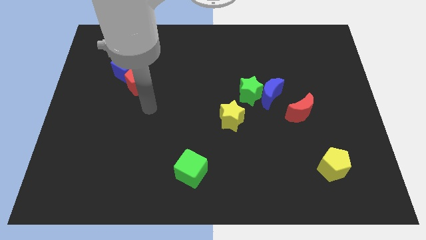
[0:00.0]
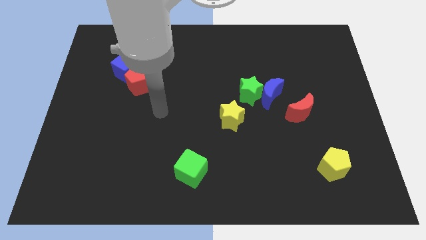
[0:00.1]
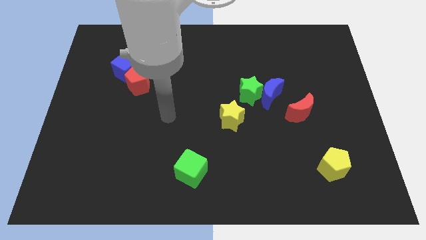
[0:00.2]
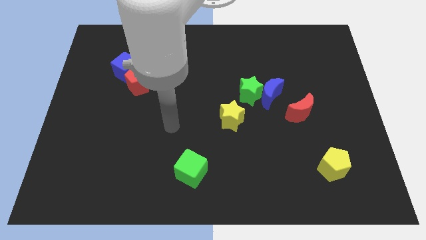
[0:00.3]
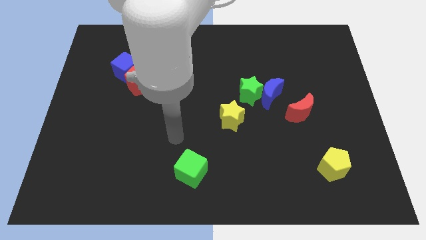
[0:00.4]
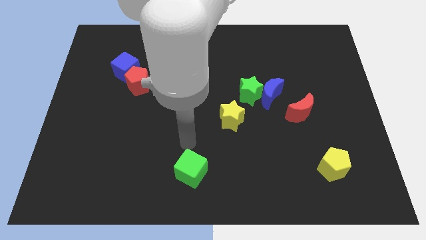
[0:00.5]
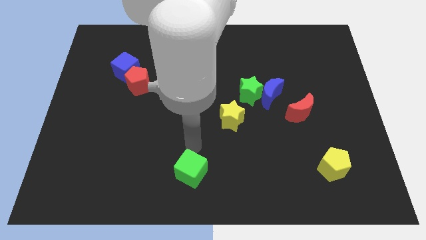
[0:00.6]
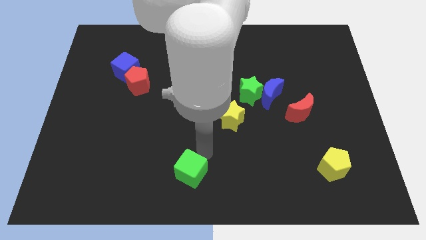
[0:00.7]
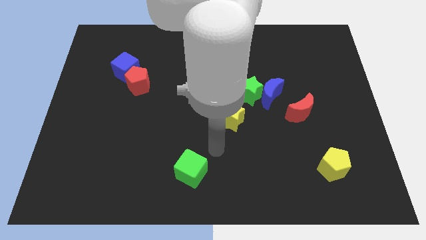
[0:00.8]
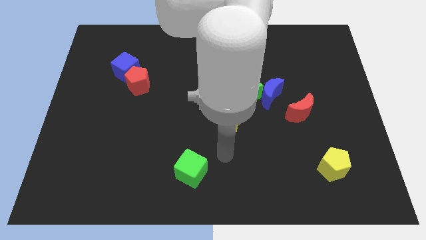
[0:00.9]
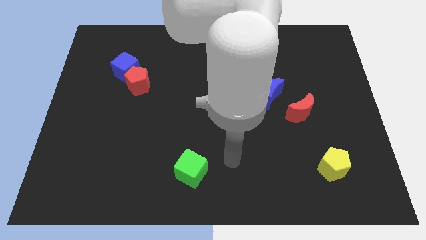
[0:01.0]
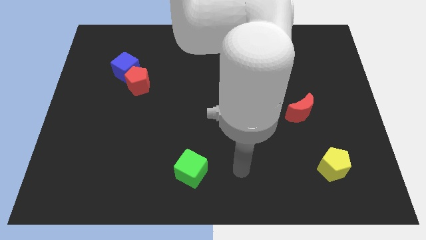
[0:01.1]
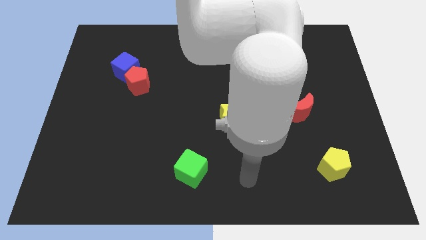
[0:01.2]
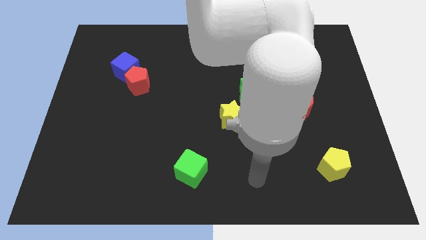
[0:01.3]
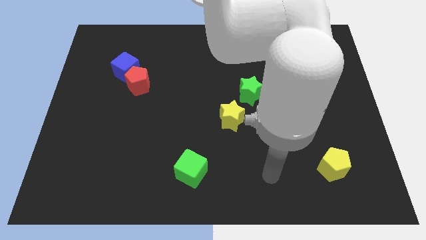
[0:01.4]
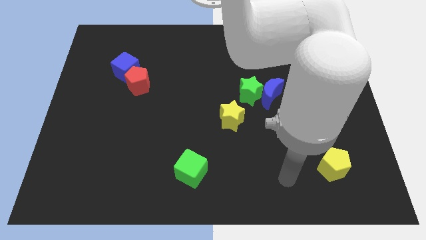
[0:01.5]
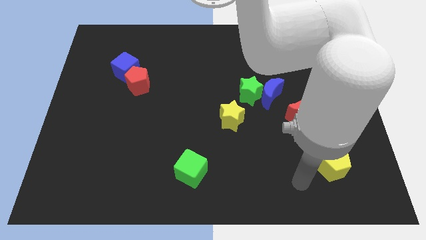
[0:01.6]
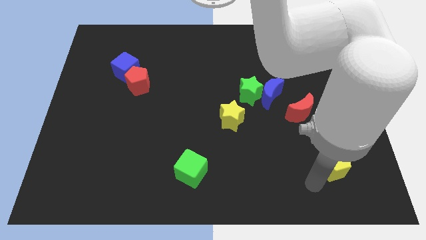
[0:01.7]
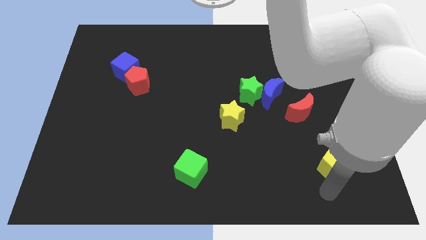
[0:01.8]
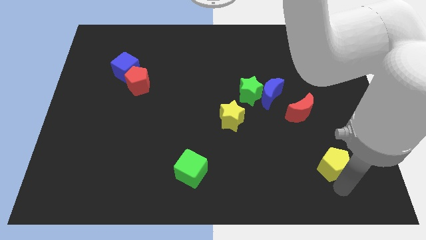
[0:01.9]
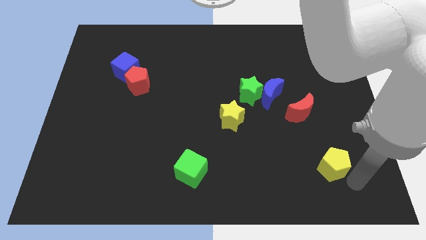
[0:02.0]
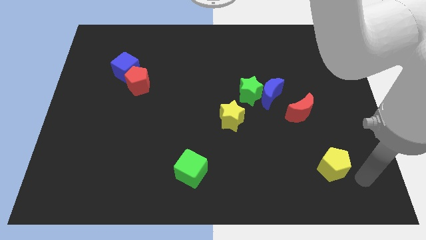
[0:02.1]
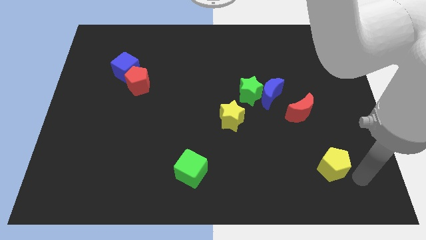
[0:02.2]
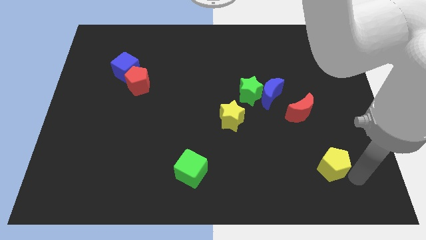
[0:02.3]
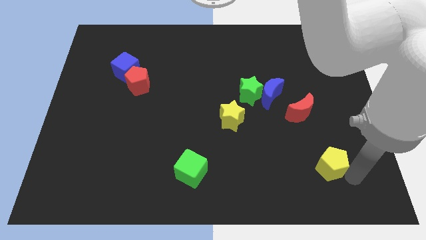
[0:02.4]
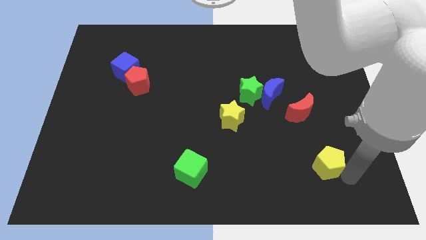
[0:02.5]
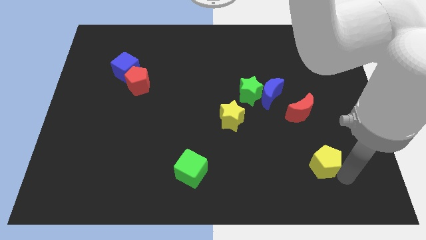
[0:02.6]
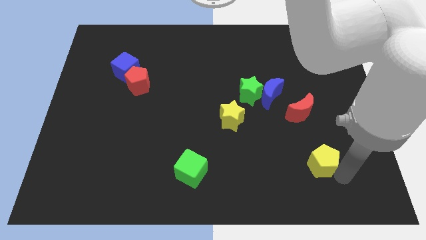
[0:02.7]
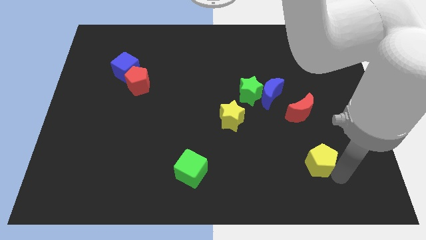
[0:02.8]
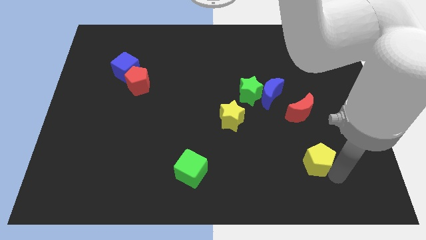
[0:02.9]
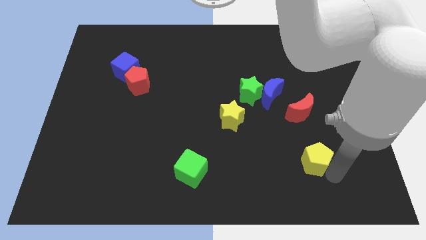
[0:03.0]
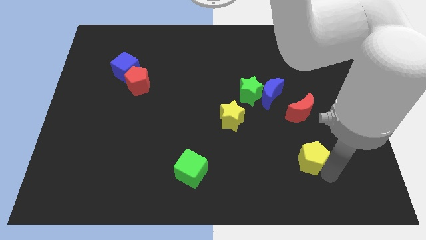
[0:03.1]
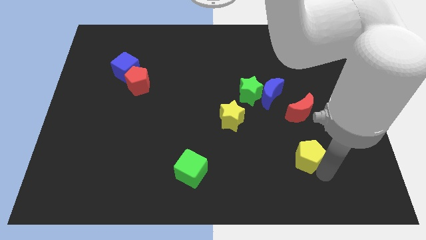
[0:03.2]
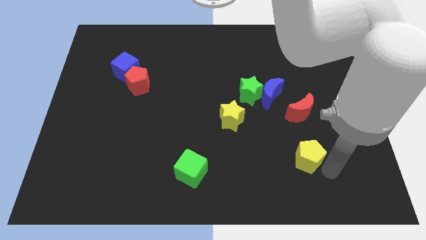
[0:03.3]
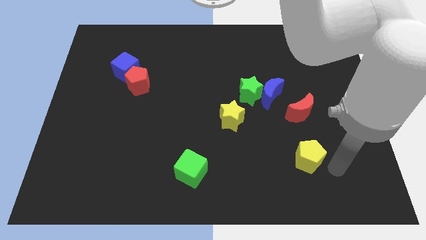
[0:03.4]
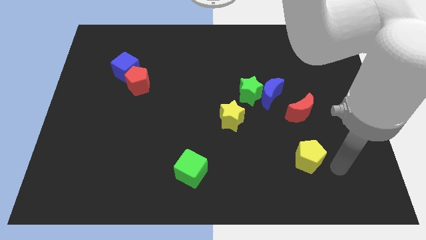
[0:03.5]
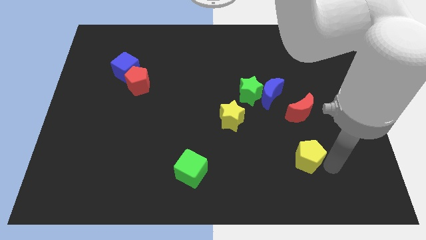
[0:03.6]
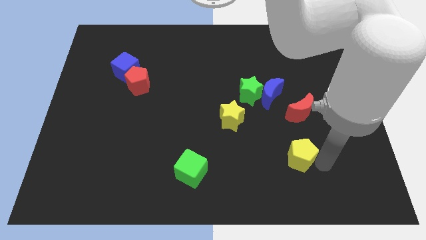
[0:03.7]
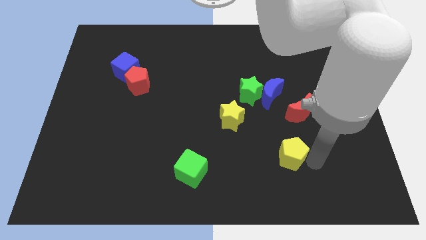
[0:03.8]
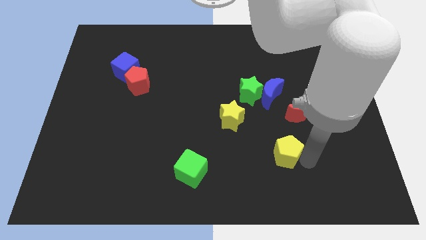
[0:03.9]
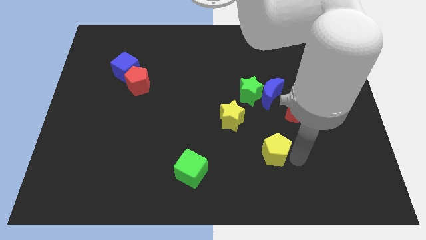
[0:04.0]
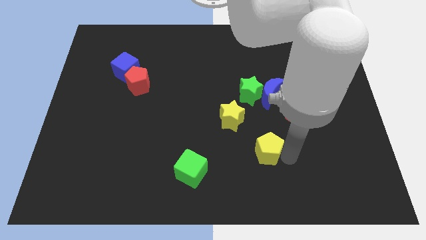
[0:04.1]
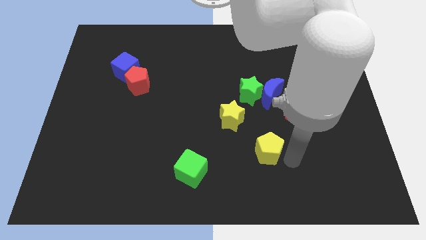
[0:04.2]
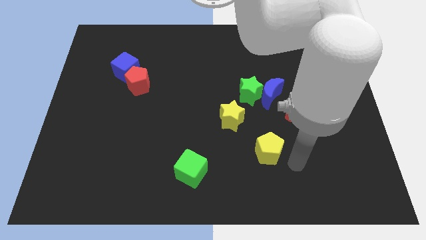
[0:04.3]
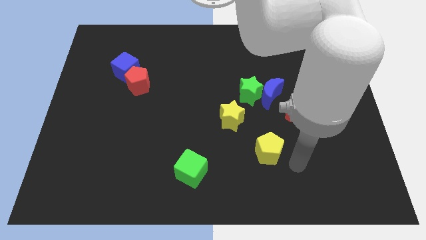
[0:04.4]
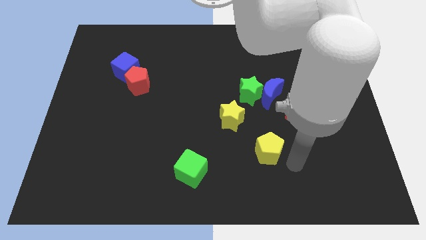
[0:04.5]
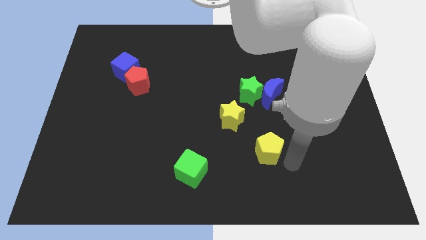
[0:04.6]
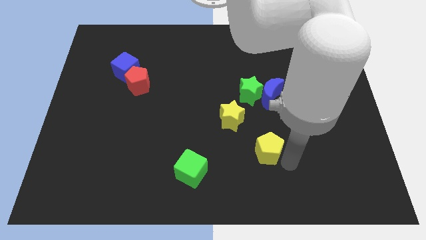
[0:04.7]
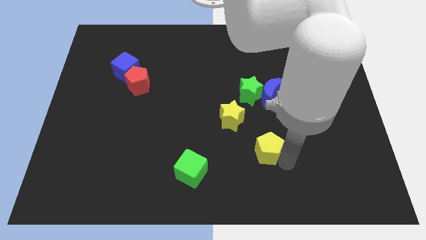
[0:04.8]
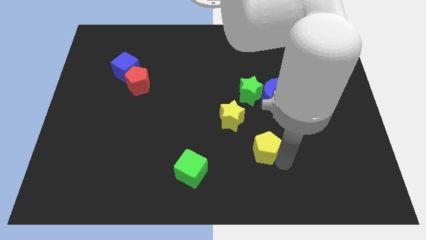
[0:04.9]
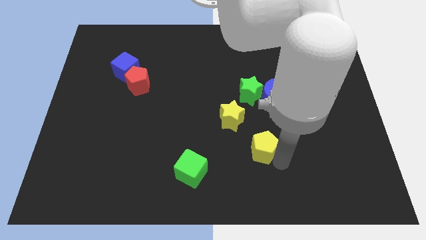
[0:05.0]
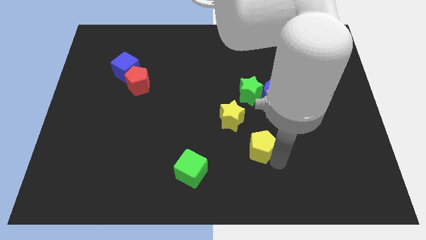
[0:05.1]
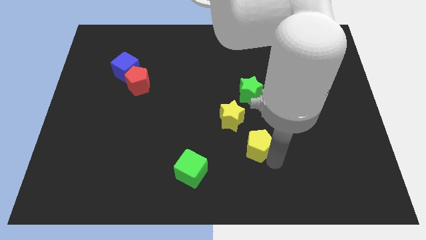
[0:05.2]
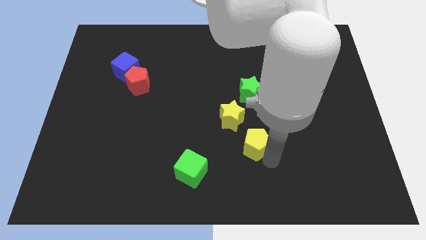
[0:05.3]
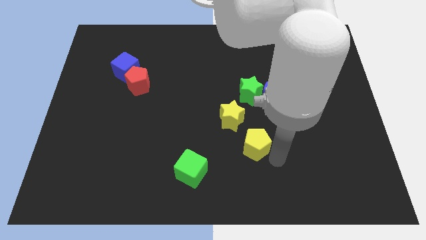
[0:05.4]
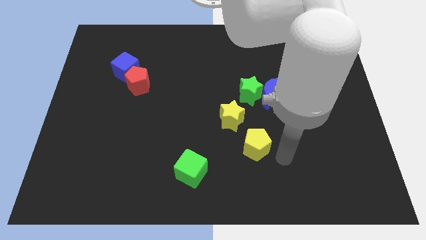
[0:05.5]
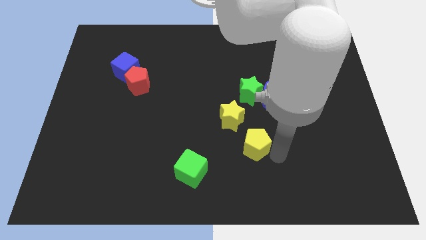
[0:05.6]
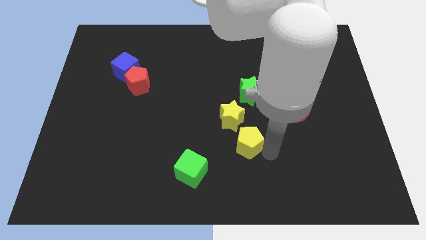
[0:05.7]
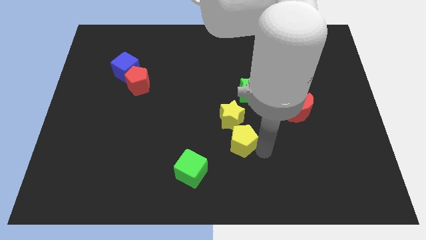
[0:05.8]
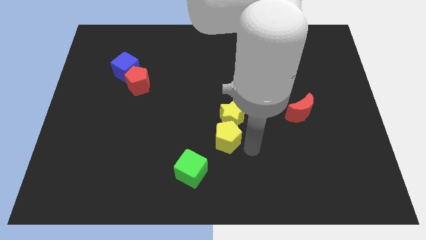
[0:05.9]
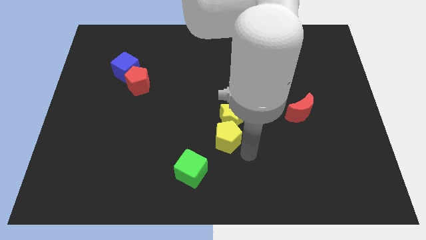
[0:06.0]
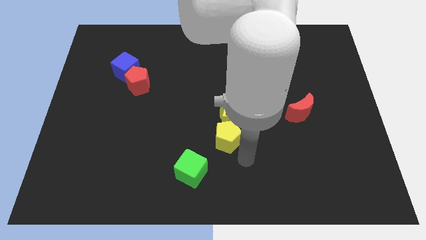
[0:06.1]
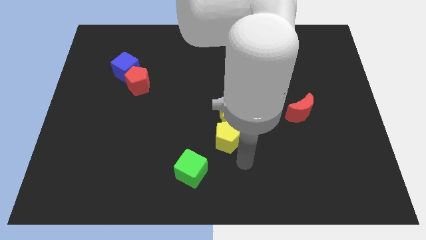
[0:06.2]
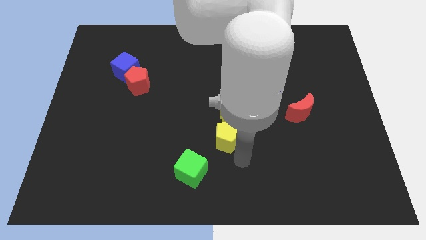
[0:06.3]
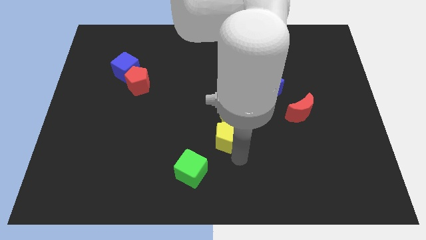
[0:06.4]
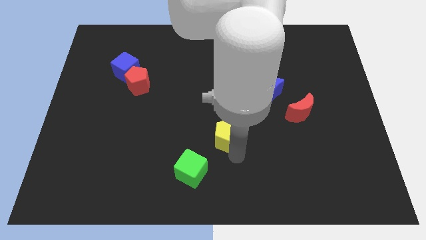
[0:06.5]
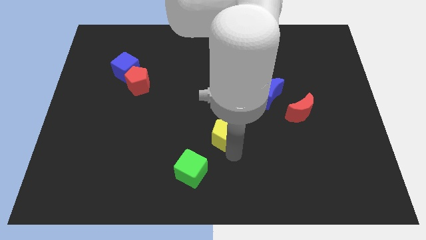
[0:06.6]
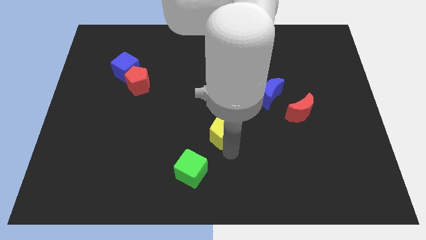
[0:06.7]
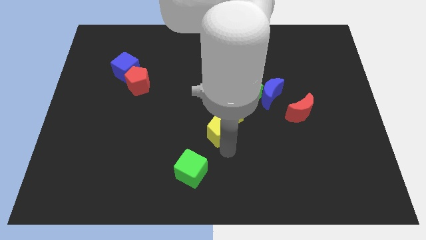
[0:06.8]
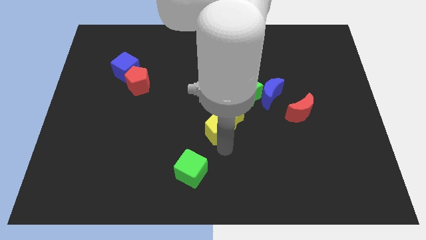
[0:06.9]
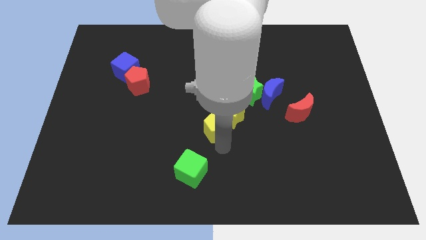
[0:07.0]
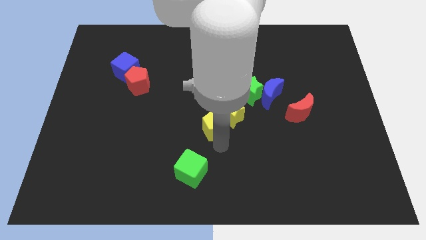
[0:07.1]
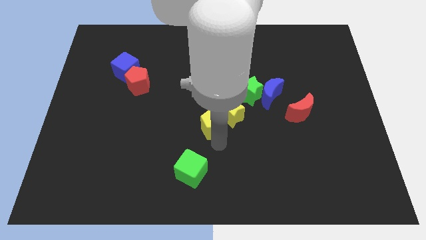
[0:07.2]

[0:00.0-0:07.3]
move the yellow pentagon upwards and then left

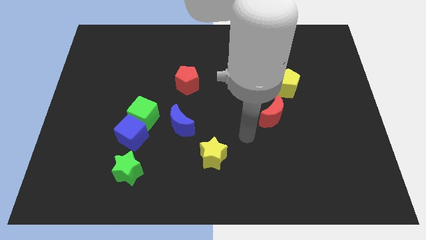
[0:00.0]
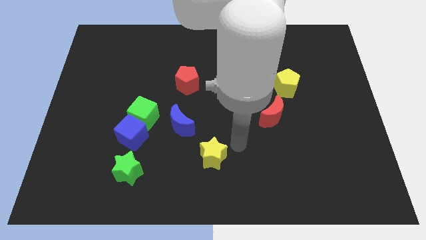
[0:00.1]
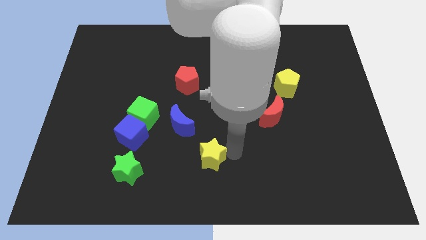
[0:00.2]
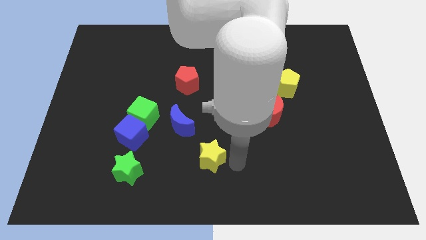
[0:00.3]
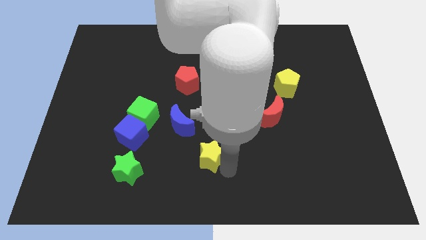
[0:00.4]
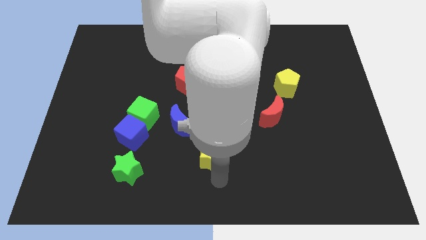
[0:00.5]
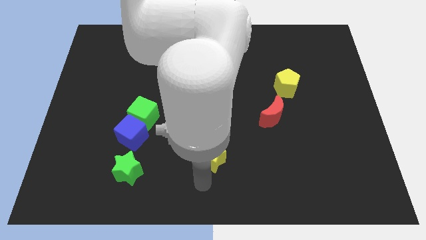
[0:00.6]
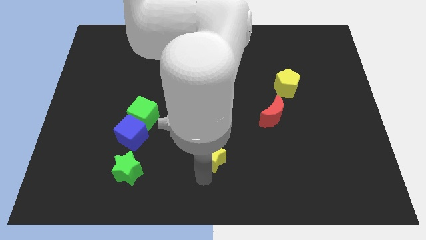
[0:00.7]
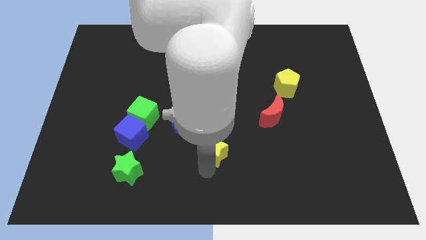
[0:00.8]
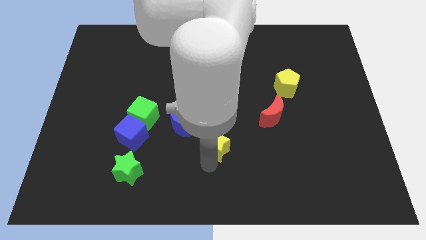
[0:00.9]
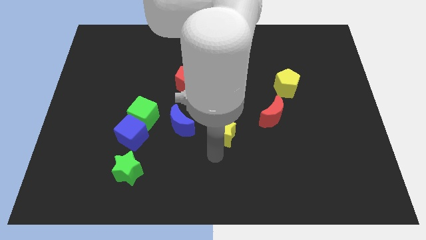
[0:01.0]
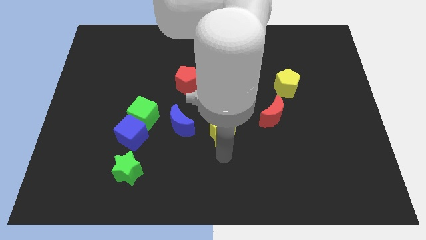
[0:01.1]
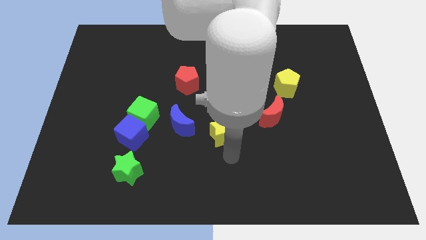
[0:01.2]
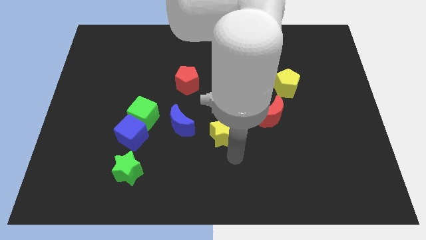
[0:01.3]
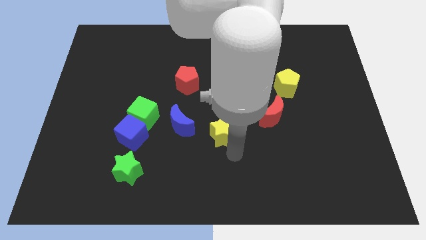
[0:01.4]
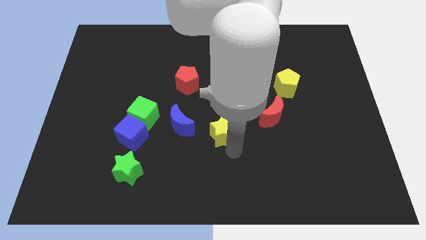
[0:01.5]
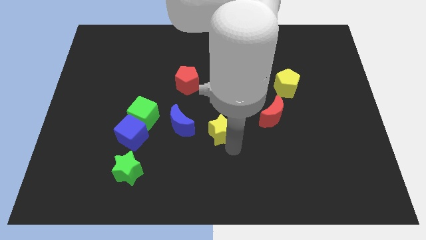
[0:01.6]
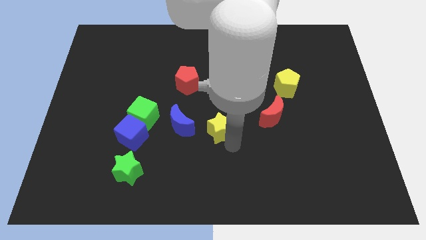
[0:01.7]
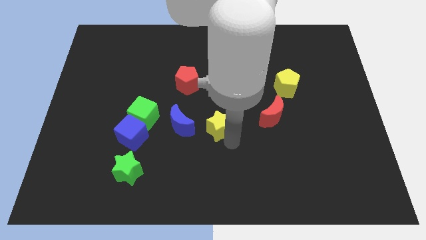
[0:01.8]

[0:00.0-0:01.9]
move the yellow star slightly up
